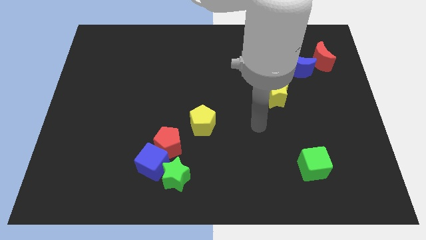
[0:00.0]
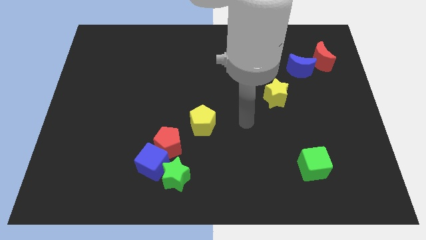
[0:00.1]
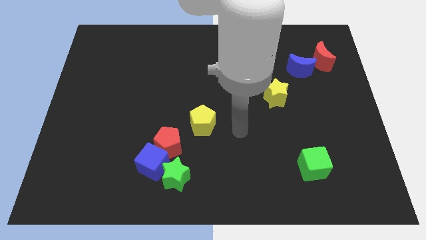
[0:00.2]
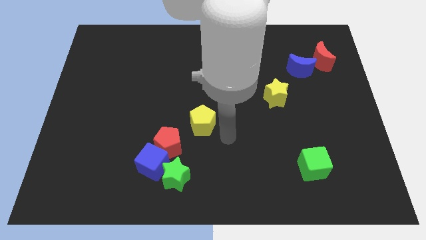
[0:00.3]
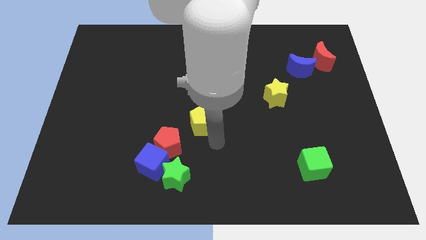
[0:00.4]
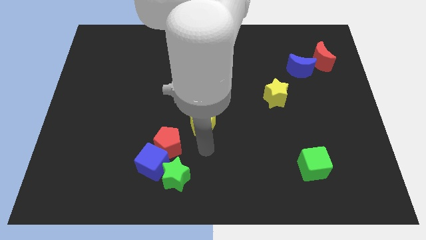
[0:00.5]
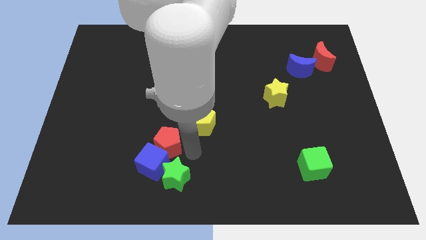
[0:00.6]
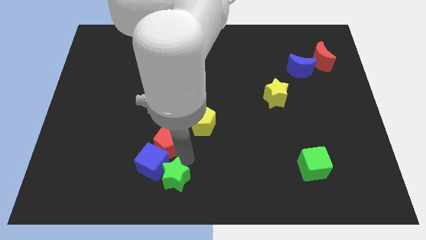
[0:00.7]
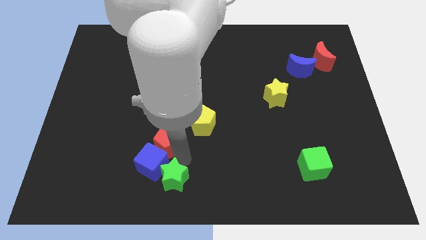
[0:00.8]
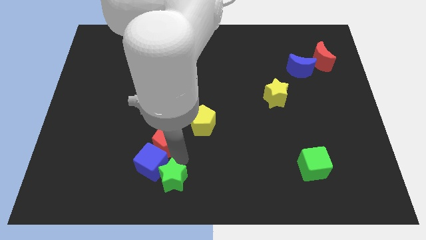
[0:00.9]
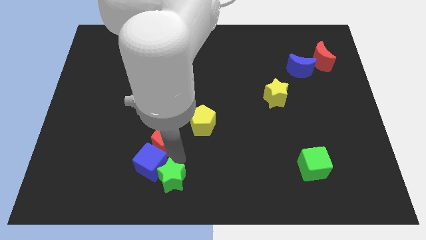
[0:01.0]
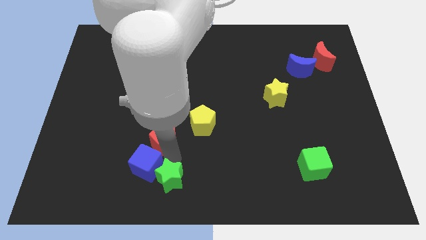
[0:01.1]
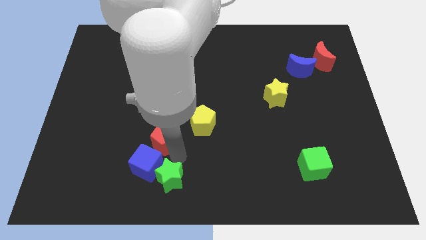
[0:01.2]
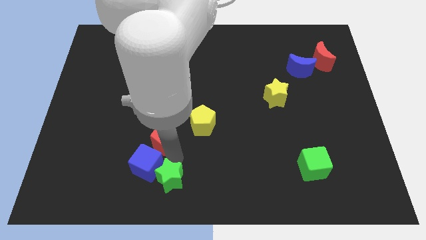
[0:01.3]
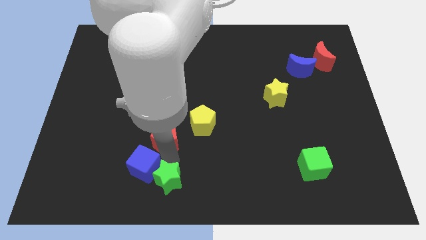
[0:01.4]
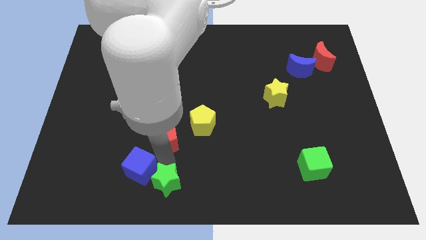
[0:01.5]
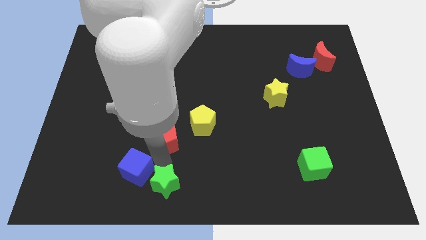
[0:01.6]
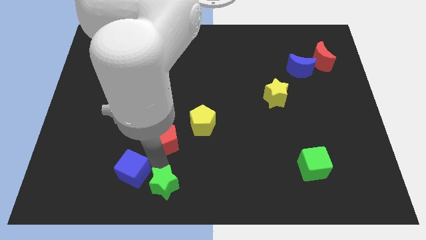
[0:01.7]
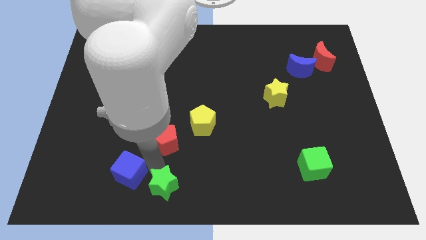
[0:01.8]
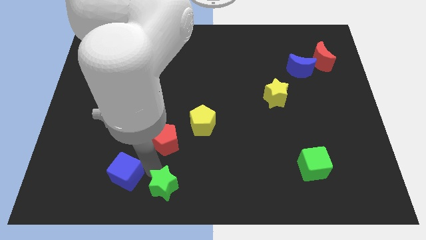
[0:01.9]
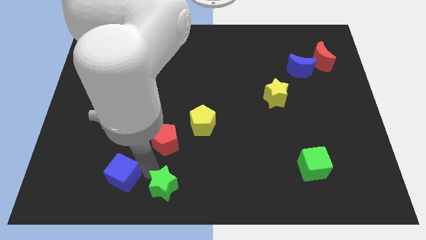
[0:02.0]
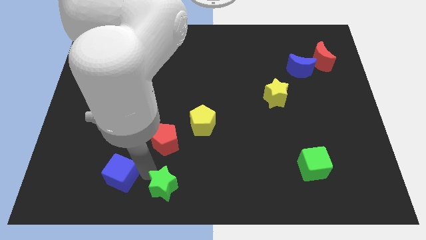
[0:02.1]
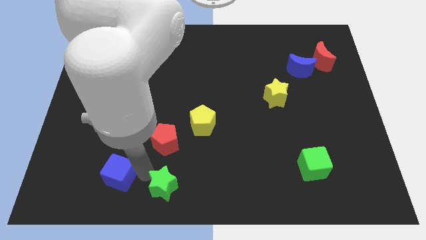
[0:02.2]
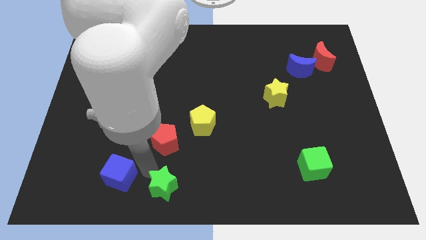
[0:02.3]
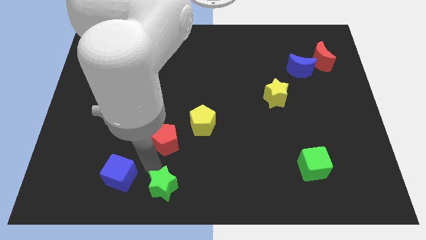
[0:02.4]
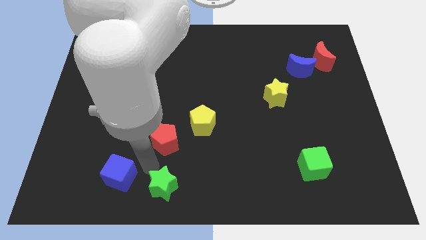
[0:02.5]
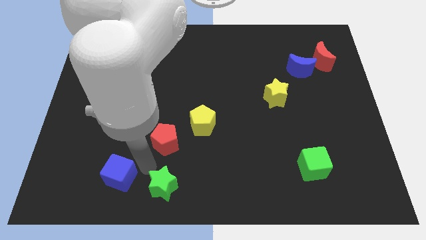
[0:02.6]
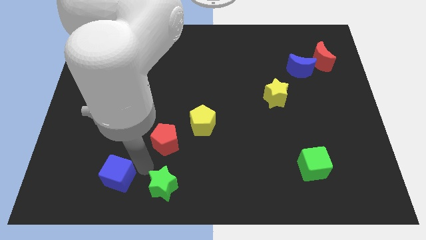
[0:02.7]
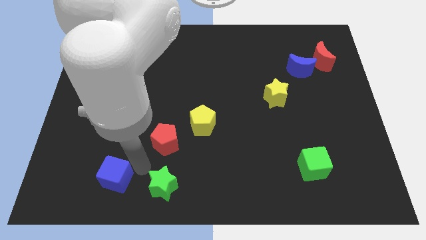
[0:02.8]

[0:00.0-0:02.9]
move the blue cube away from the green star and red pentagon

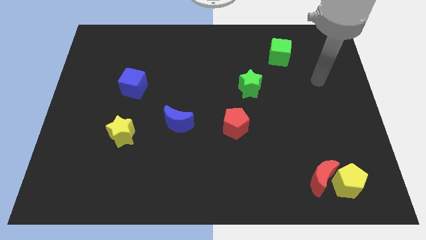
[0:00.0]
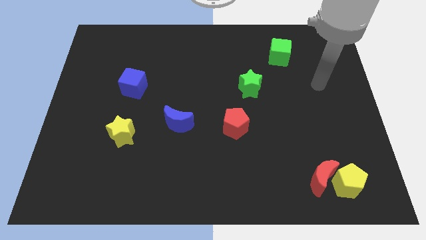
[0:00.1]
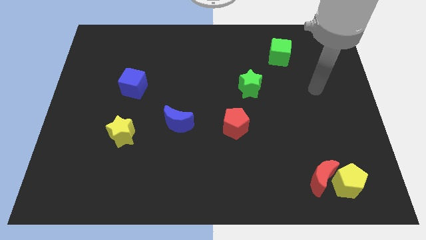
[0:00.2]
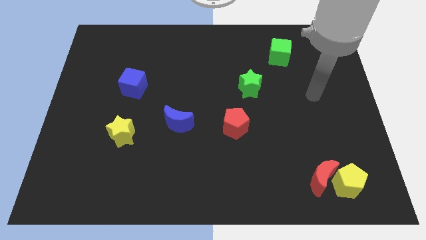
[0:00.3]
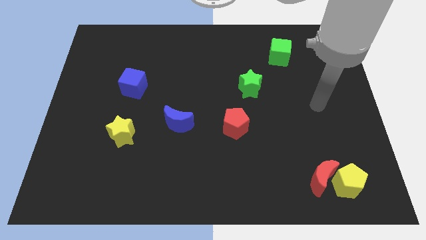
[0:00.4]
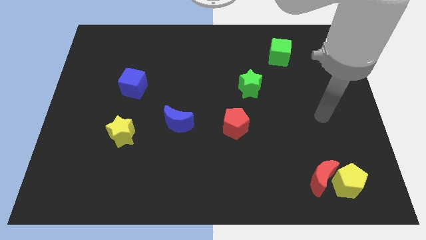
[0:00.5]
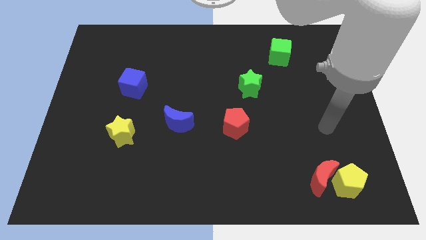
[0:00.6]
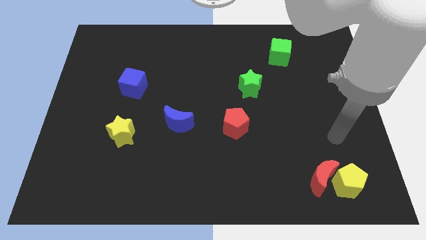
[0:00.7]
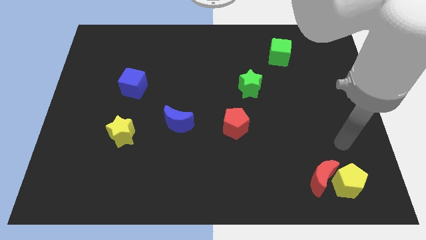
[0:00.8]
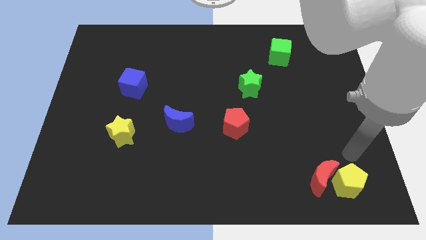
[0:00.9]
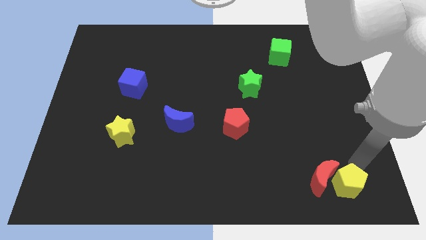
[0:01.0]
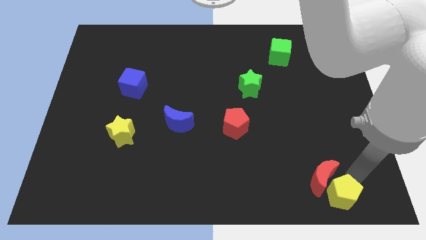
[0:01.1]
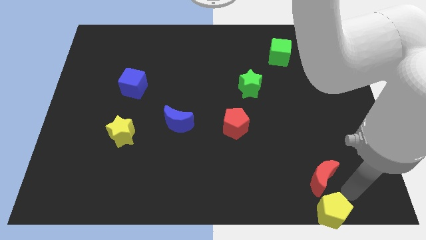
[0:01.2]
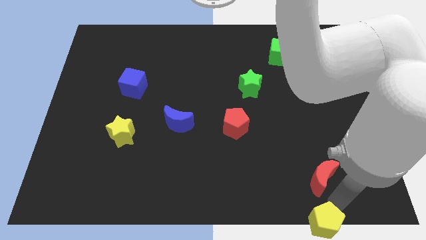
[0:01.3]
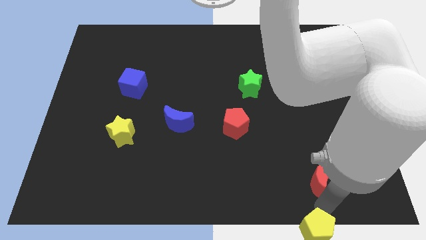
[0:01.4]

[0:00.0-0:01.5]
move the red moon away from the yellow pentagon

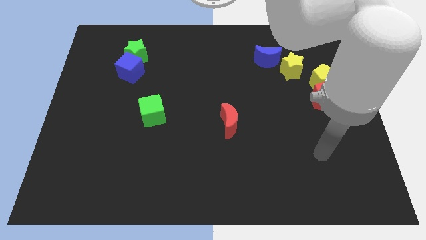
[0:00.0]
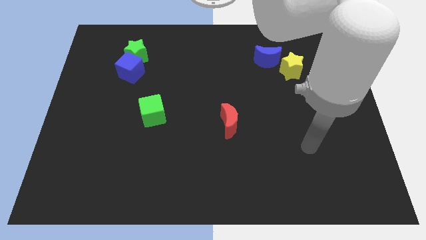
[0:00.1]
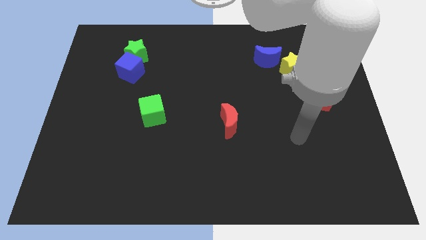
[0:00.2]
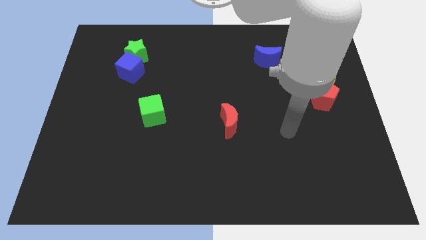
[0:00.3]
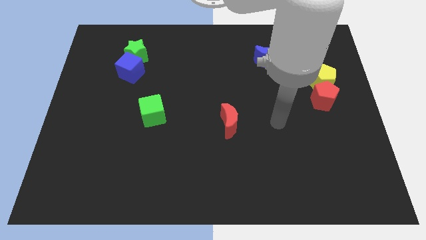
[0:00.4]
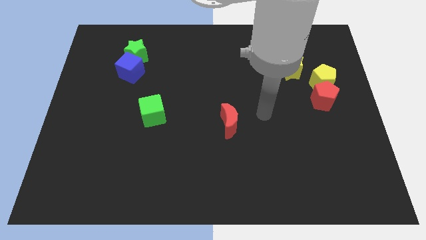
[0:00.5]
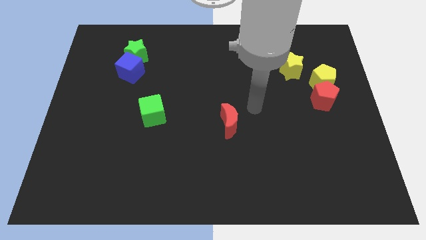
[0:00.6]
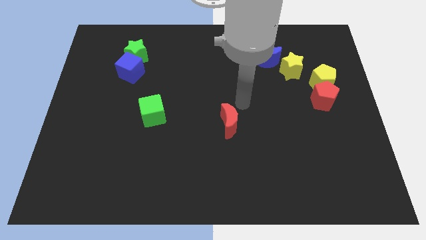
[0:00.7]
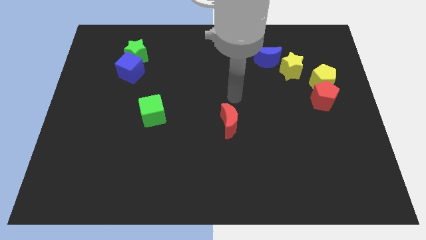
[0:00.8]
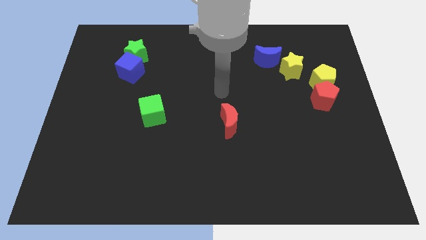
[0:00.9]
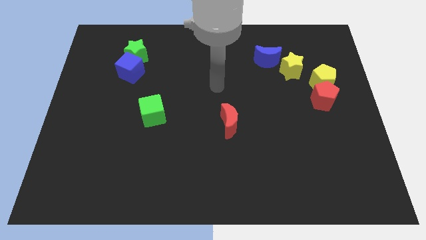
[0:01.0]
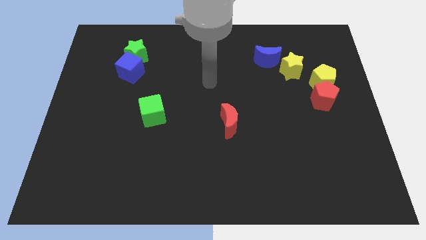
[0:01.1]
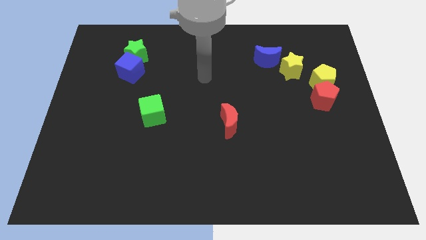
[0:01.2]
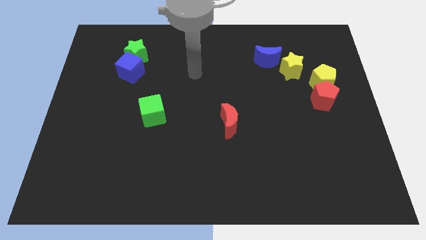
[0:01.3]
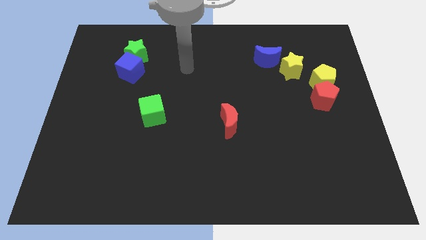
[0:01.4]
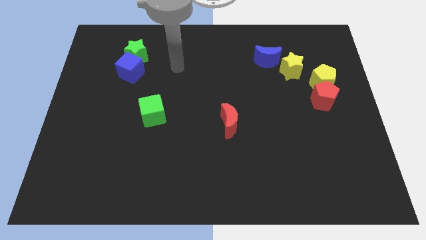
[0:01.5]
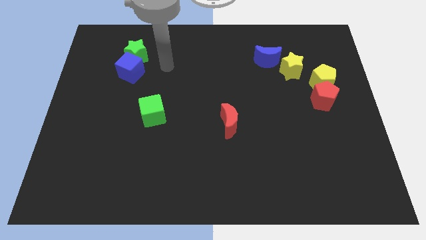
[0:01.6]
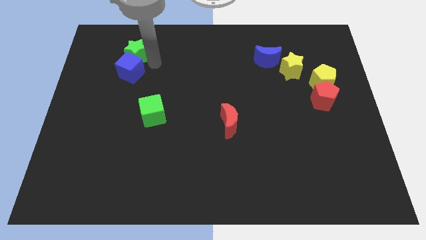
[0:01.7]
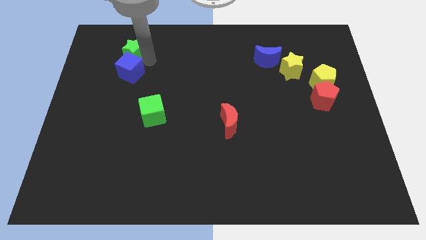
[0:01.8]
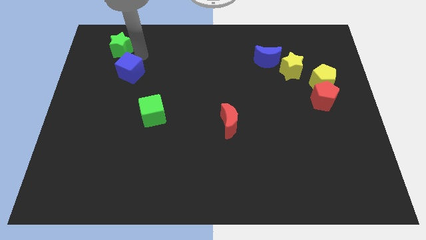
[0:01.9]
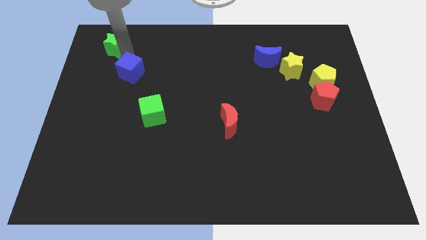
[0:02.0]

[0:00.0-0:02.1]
pull the blue cube apart from the green star

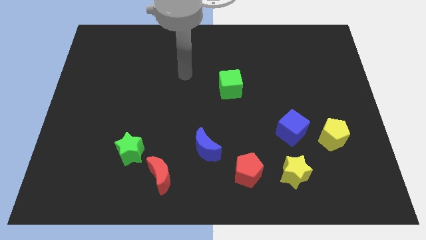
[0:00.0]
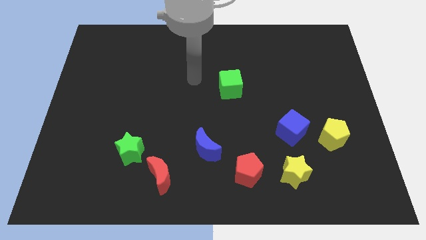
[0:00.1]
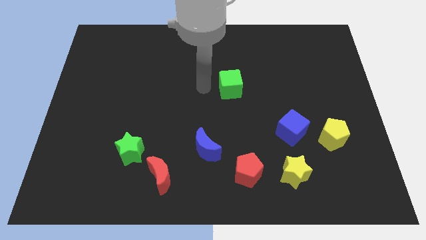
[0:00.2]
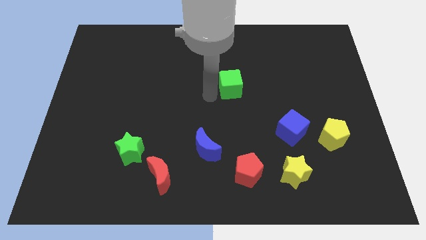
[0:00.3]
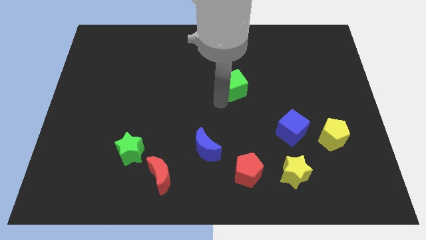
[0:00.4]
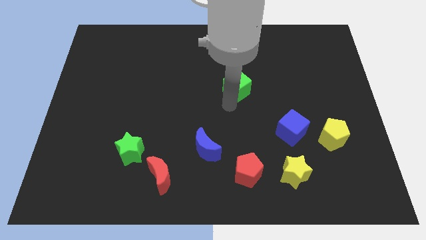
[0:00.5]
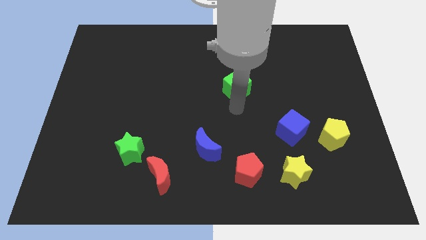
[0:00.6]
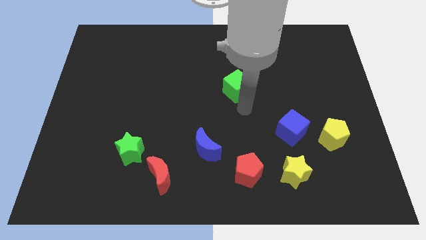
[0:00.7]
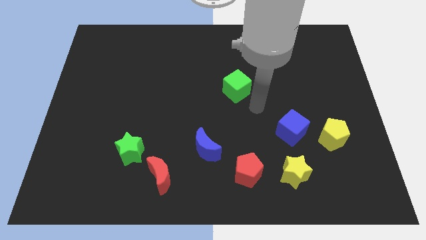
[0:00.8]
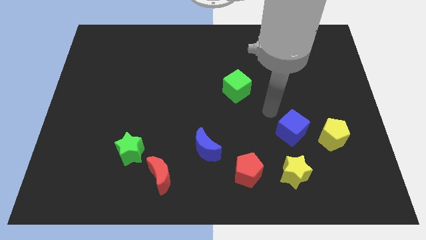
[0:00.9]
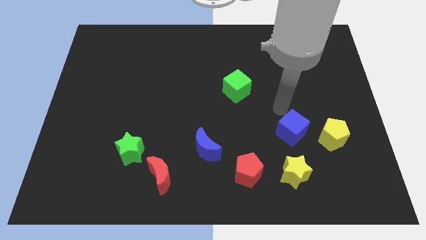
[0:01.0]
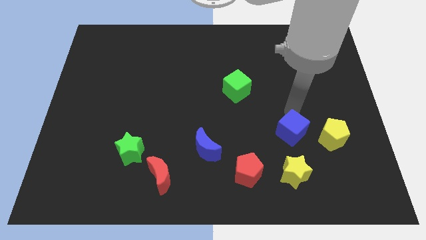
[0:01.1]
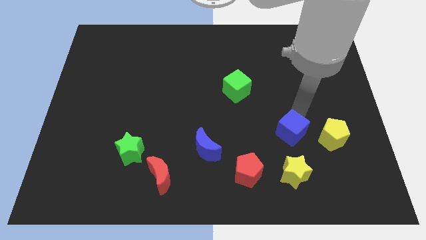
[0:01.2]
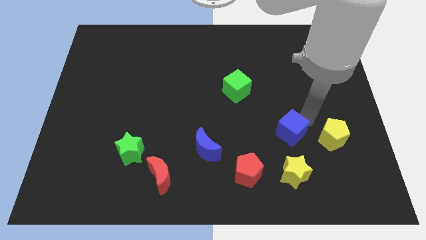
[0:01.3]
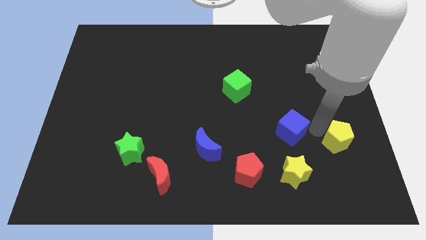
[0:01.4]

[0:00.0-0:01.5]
move the blue cube away from the yellow pentagon

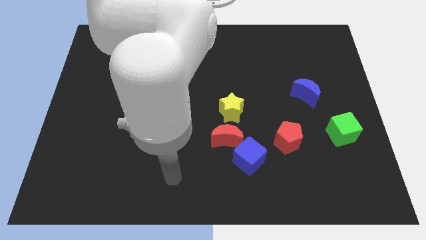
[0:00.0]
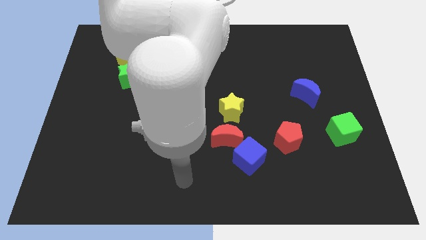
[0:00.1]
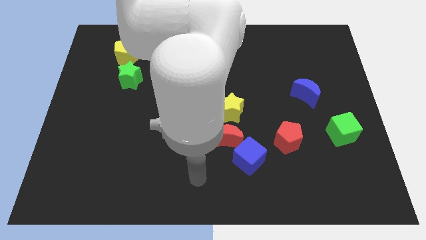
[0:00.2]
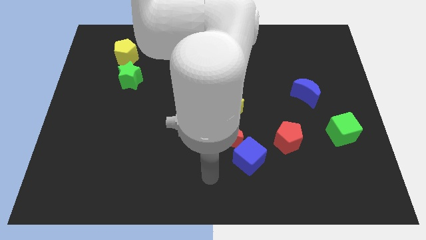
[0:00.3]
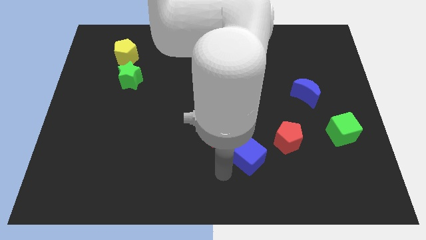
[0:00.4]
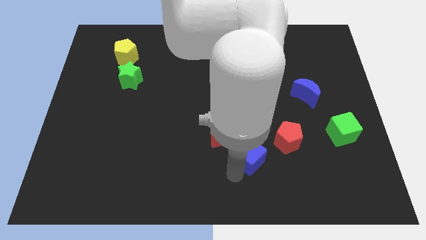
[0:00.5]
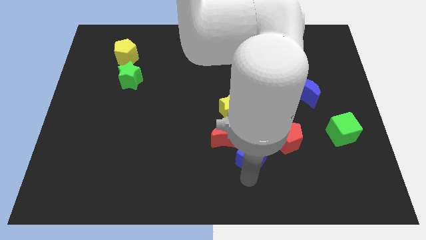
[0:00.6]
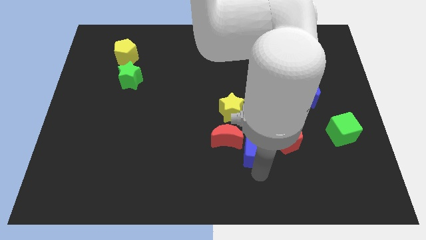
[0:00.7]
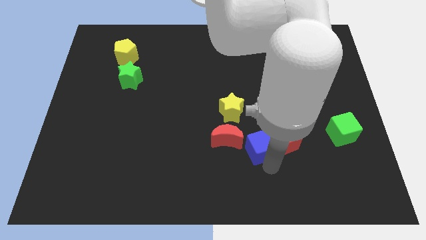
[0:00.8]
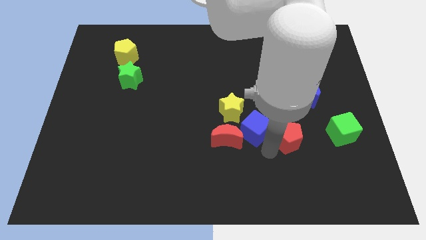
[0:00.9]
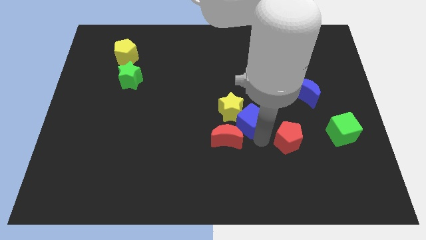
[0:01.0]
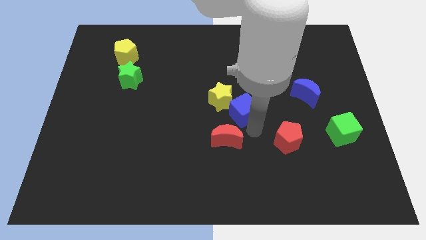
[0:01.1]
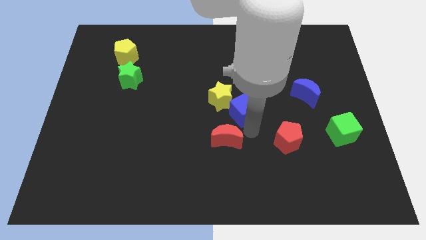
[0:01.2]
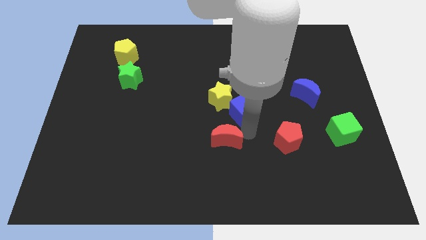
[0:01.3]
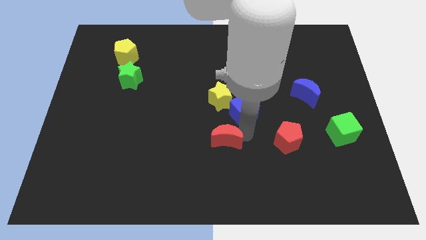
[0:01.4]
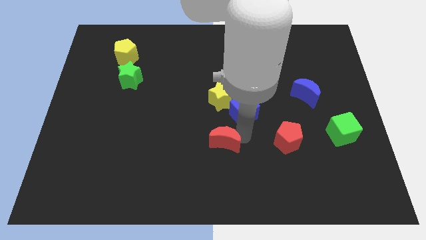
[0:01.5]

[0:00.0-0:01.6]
pull the red moon apart from the blue cube and yellow star
